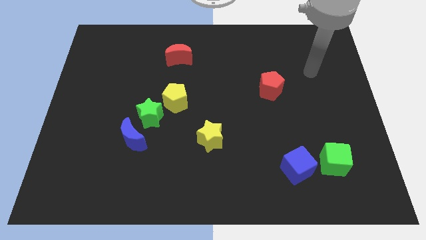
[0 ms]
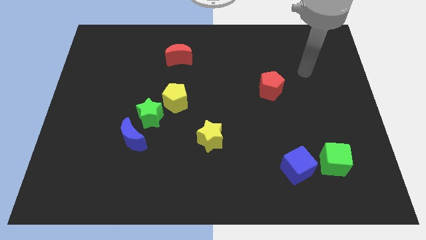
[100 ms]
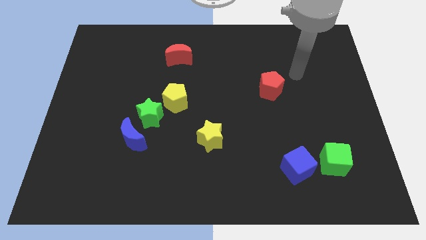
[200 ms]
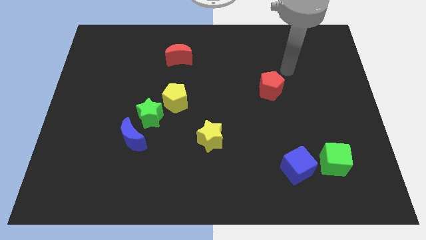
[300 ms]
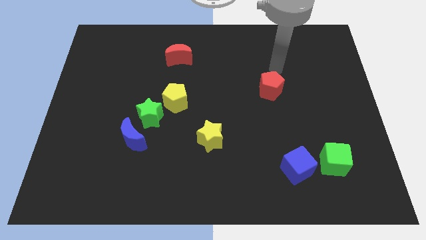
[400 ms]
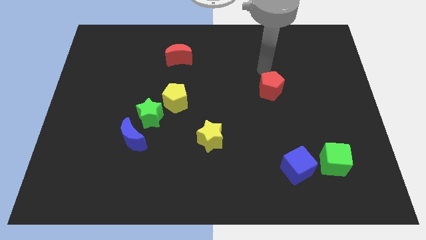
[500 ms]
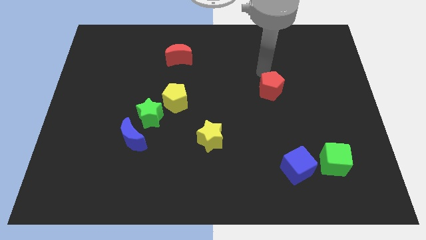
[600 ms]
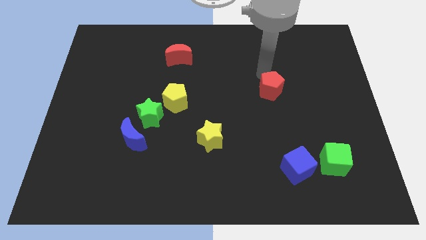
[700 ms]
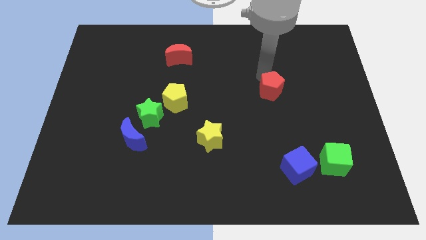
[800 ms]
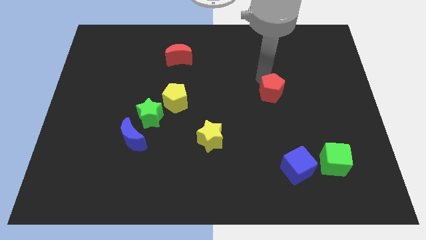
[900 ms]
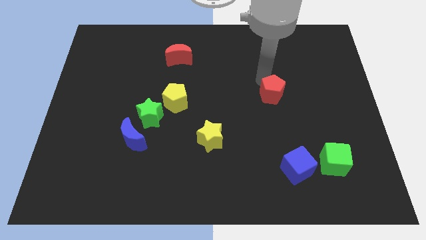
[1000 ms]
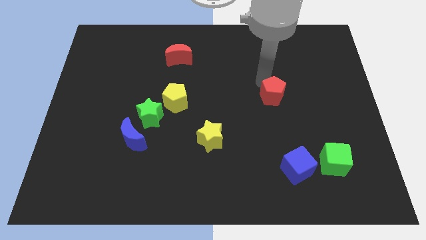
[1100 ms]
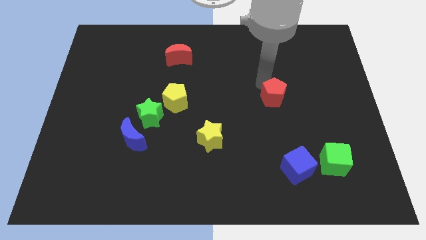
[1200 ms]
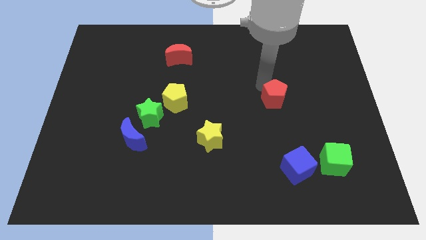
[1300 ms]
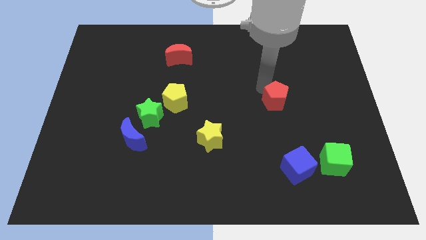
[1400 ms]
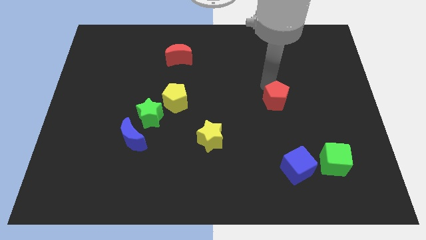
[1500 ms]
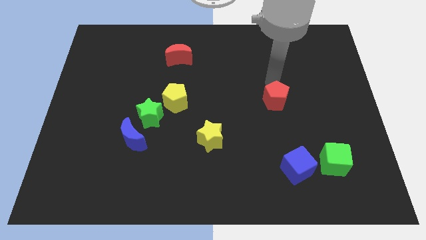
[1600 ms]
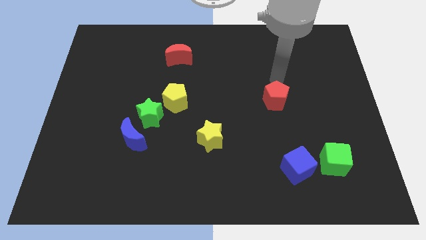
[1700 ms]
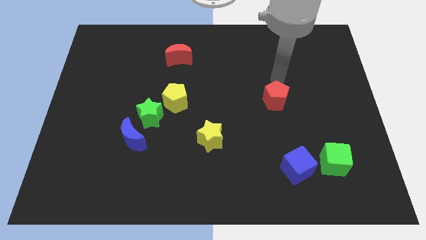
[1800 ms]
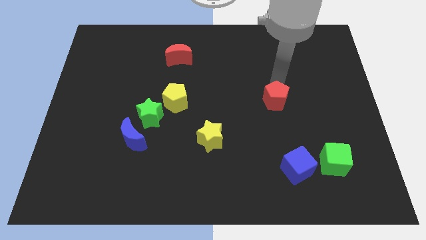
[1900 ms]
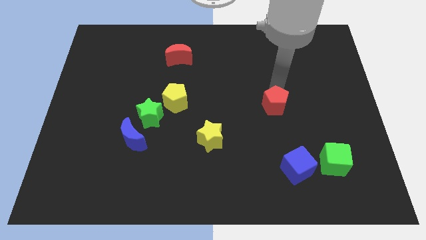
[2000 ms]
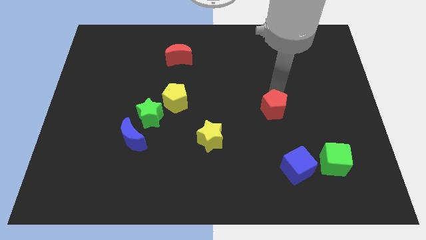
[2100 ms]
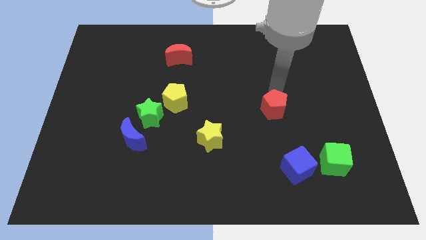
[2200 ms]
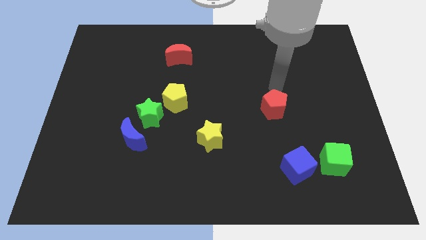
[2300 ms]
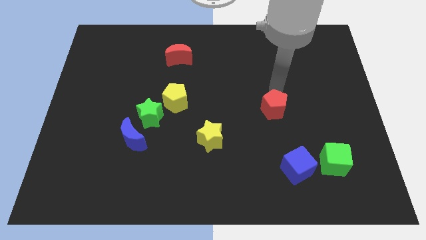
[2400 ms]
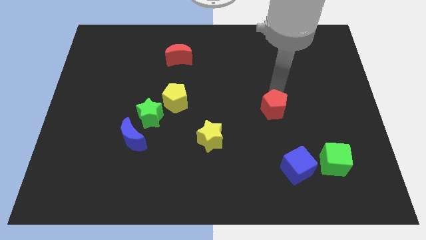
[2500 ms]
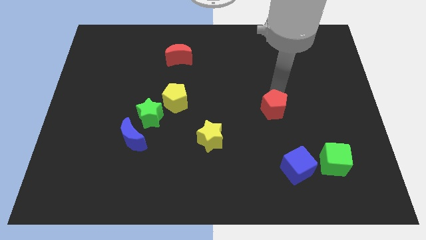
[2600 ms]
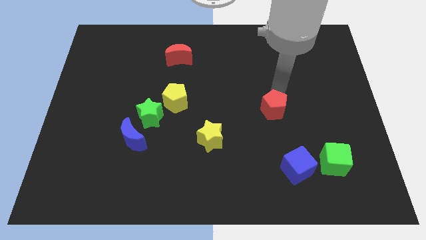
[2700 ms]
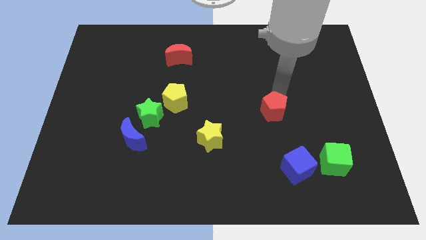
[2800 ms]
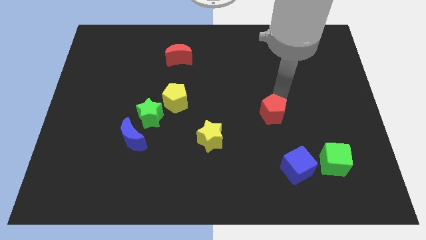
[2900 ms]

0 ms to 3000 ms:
move the red pentagon down a bit

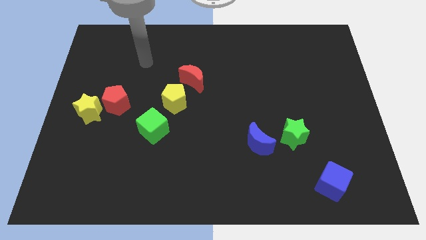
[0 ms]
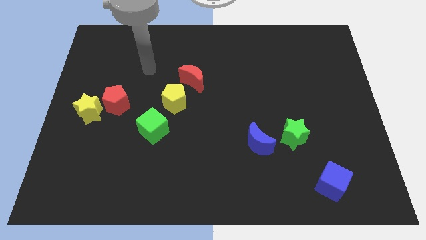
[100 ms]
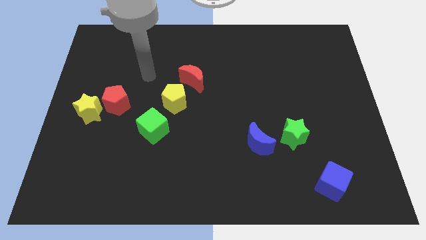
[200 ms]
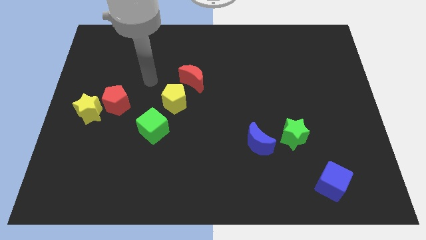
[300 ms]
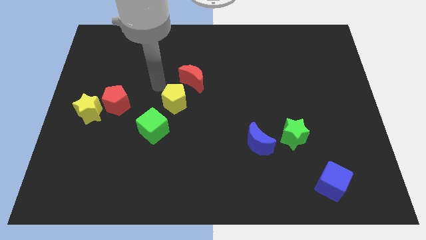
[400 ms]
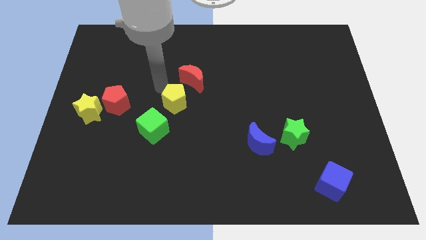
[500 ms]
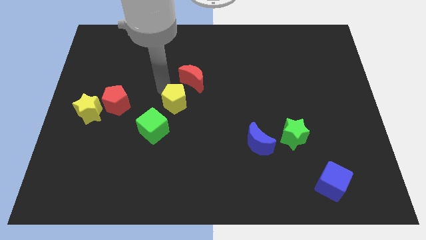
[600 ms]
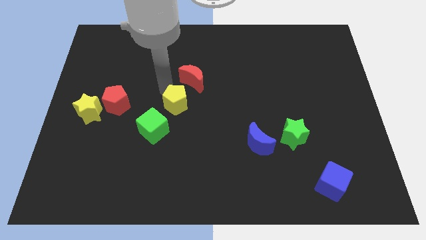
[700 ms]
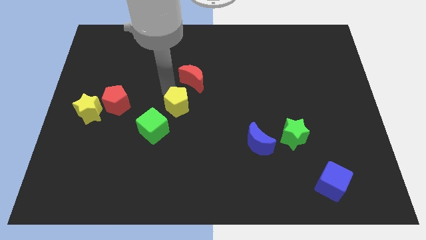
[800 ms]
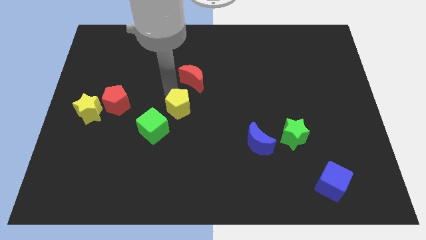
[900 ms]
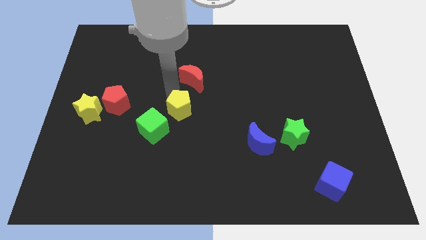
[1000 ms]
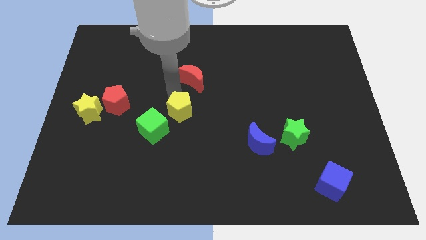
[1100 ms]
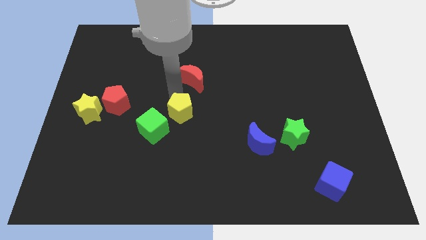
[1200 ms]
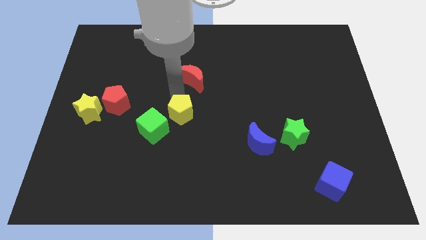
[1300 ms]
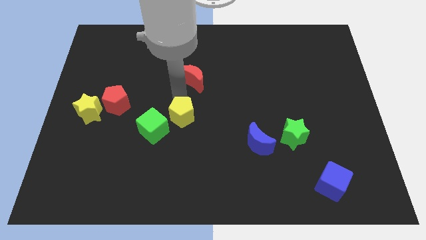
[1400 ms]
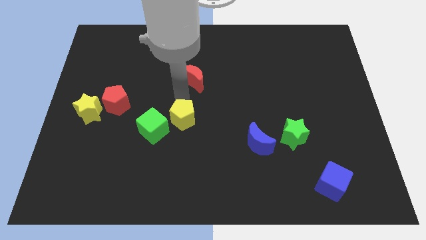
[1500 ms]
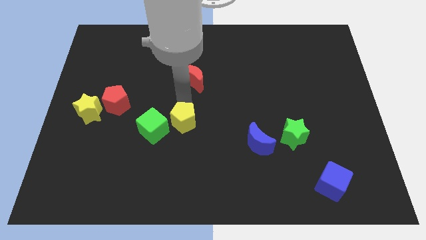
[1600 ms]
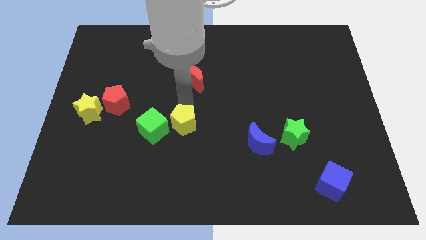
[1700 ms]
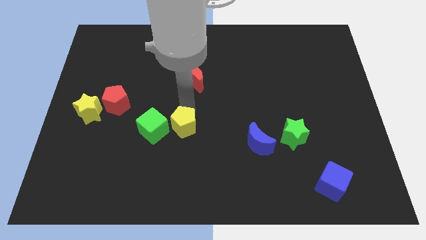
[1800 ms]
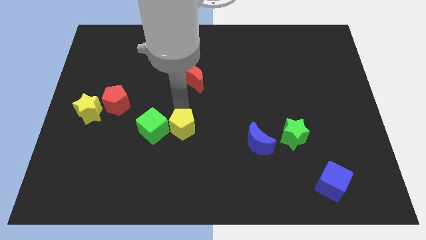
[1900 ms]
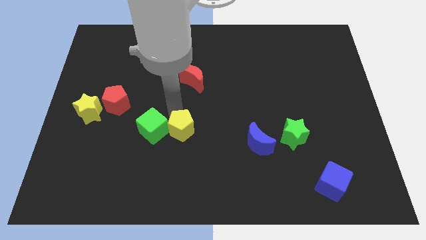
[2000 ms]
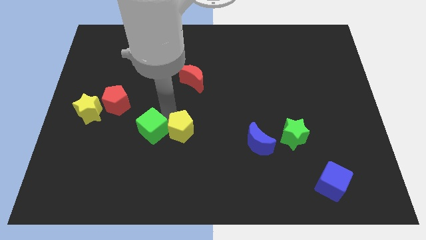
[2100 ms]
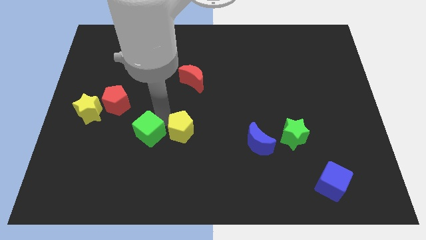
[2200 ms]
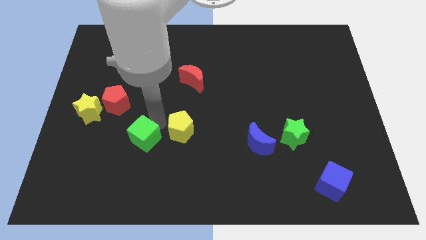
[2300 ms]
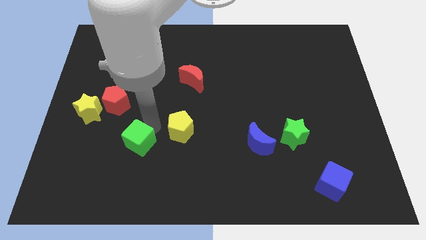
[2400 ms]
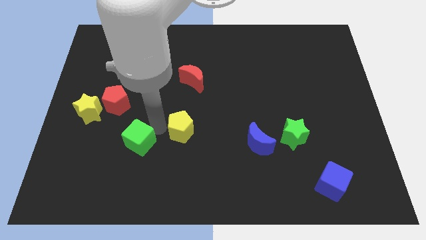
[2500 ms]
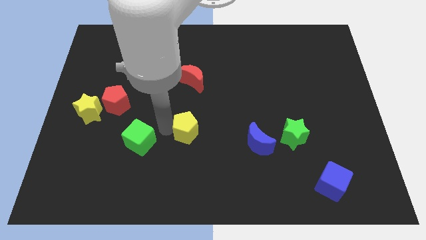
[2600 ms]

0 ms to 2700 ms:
slide the yellow pentagon a bit downwards and then to the right

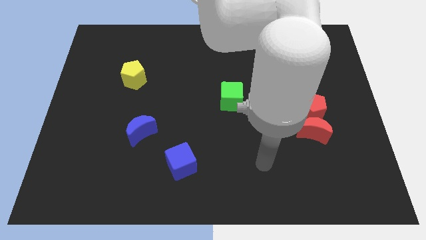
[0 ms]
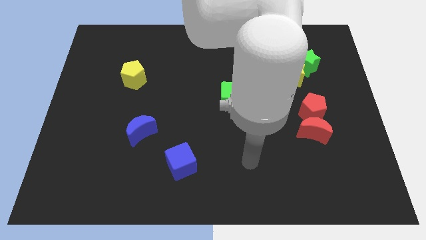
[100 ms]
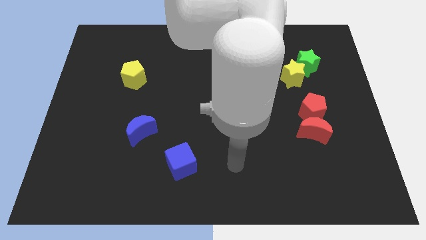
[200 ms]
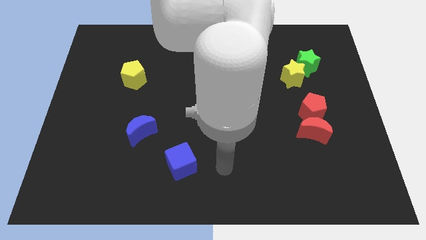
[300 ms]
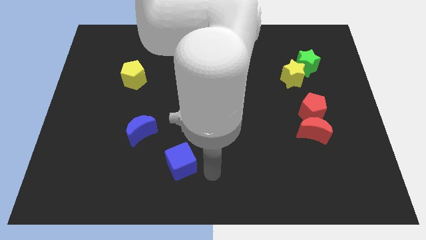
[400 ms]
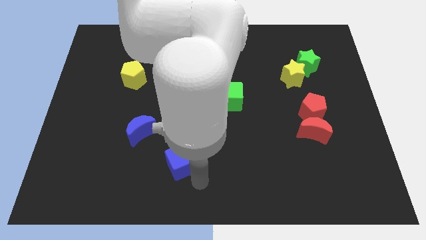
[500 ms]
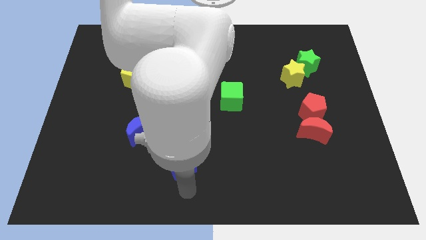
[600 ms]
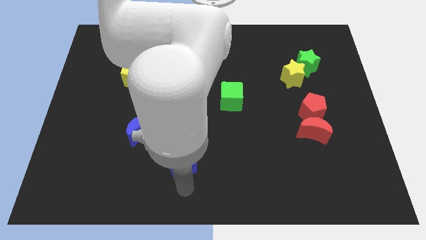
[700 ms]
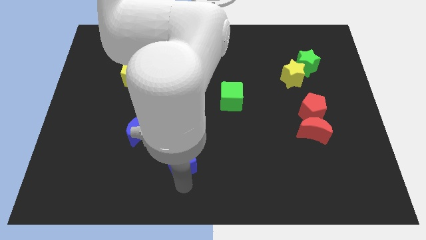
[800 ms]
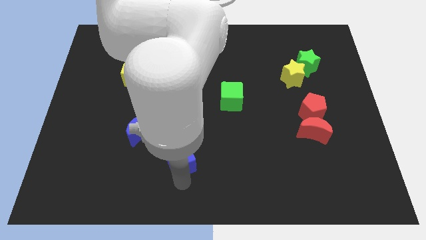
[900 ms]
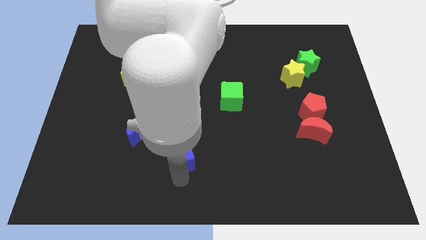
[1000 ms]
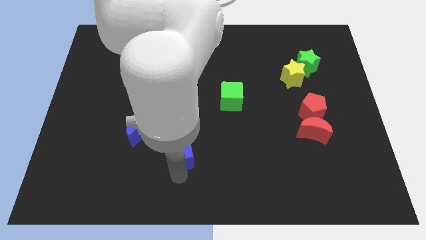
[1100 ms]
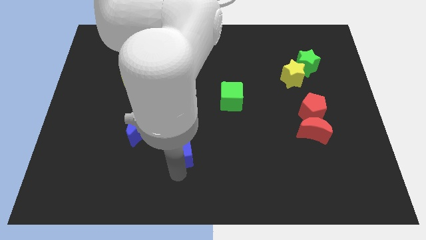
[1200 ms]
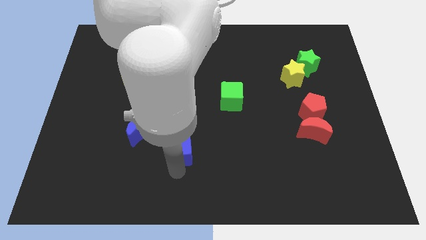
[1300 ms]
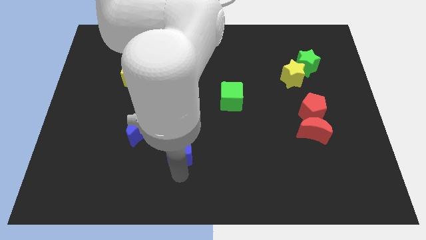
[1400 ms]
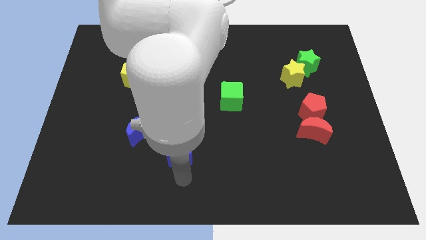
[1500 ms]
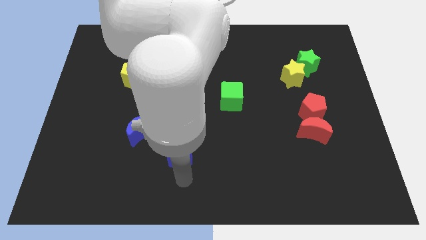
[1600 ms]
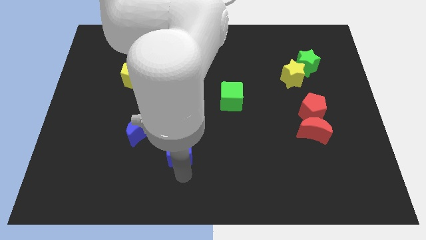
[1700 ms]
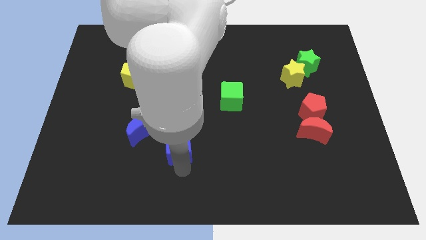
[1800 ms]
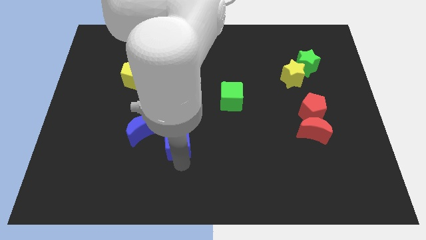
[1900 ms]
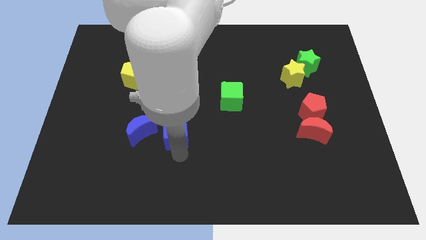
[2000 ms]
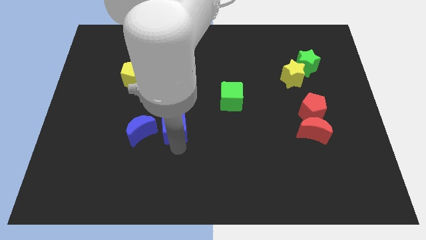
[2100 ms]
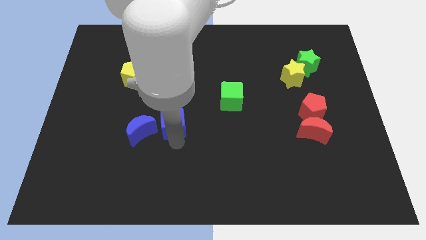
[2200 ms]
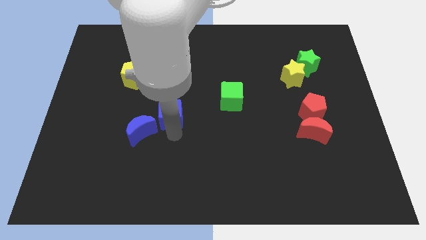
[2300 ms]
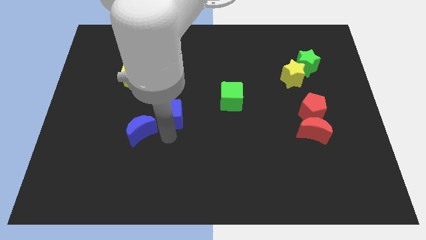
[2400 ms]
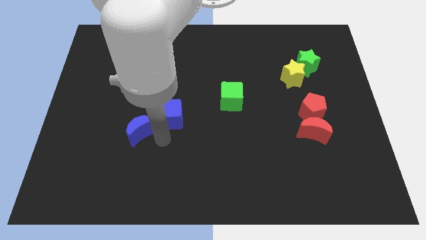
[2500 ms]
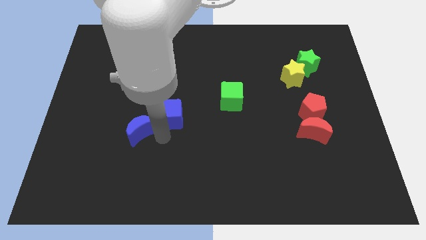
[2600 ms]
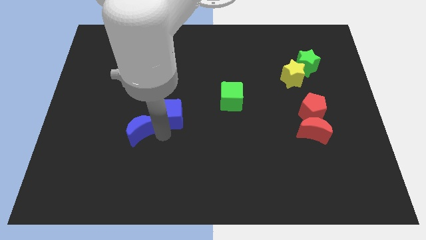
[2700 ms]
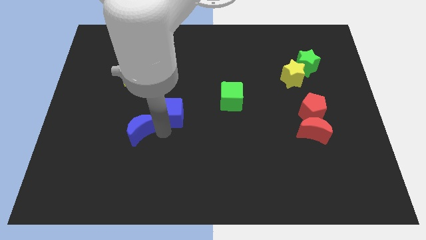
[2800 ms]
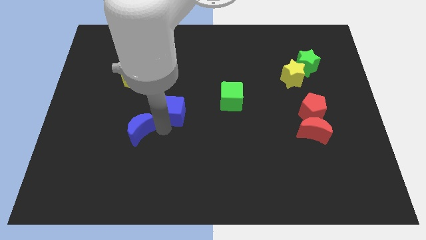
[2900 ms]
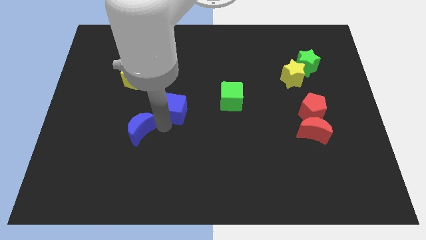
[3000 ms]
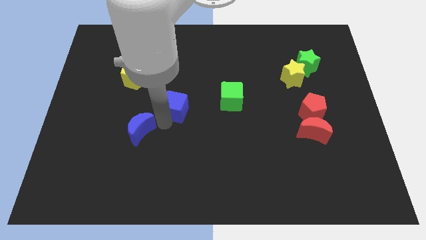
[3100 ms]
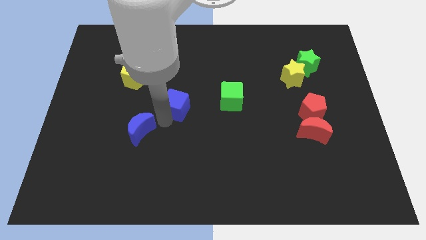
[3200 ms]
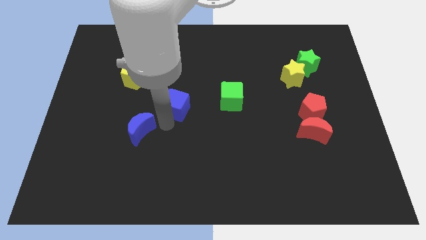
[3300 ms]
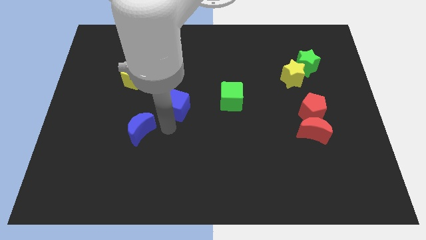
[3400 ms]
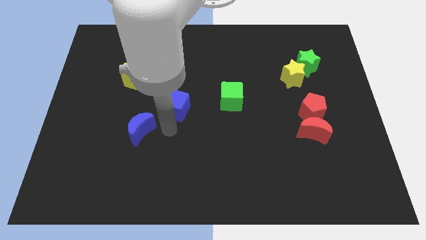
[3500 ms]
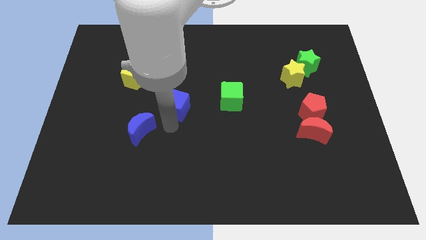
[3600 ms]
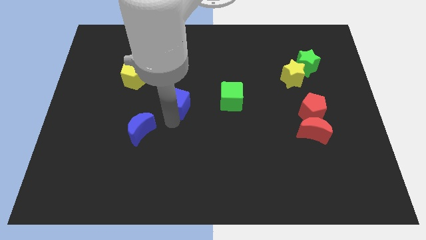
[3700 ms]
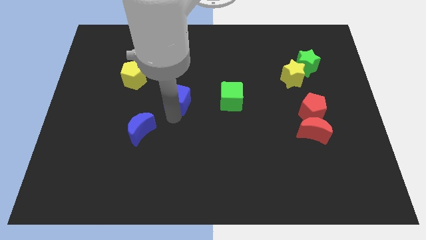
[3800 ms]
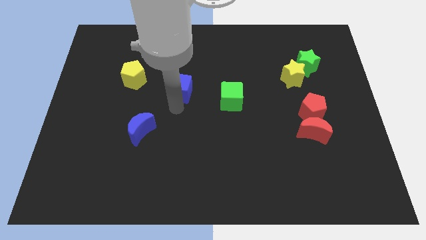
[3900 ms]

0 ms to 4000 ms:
push the blue cube upwards
